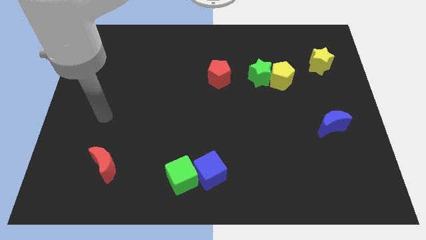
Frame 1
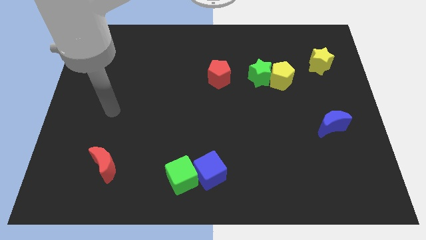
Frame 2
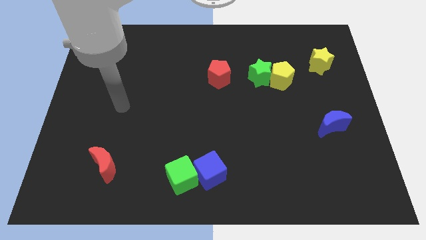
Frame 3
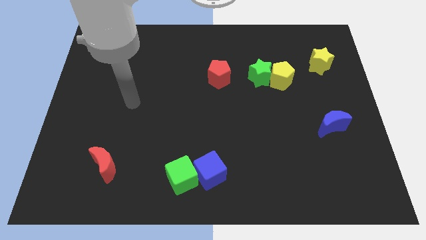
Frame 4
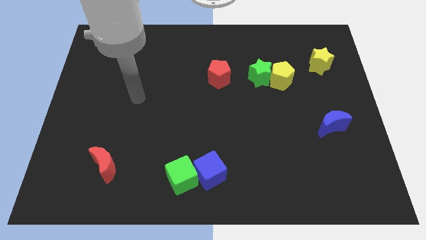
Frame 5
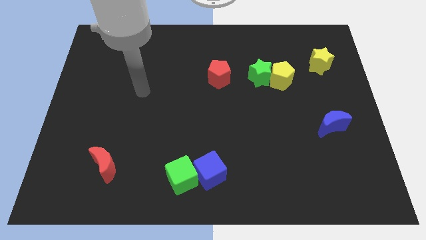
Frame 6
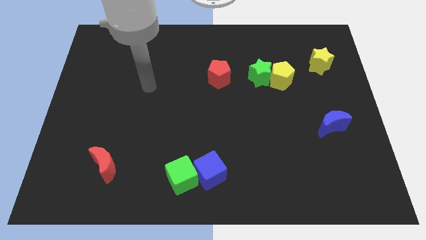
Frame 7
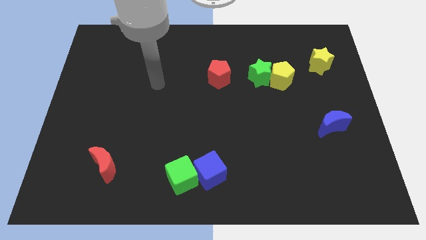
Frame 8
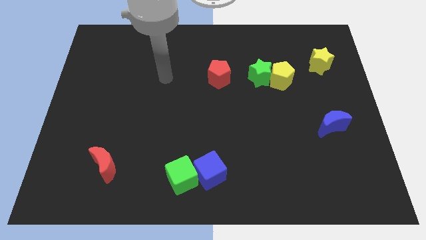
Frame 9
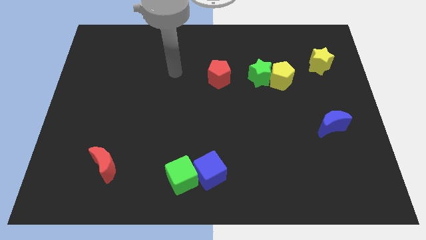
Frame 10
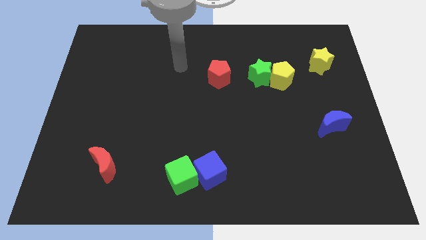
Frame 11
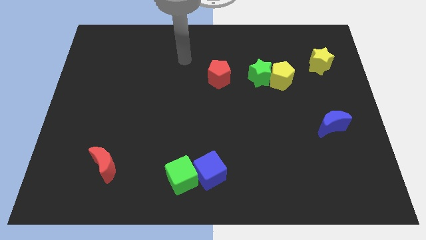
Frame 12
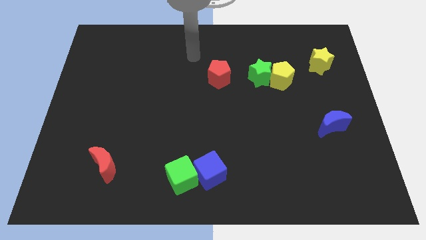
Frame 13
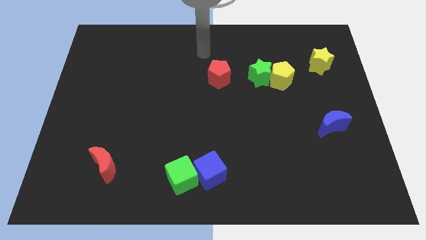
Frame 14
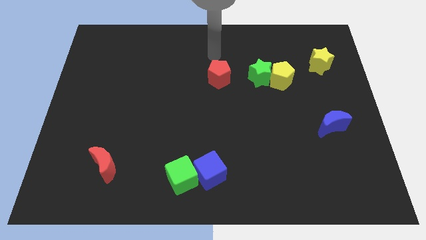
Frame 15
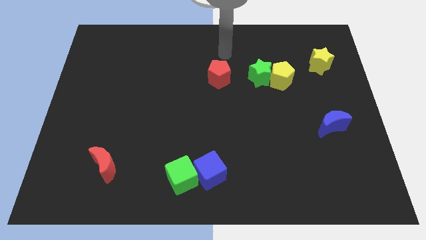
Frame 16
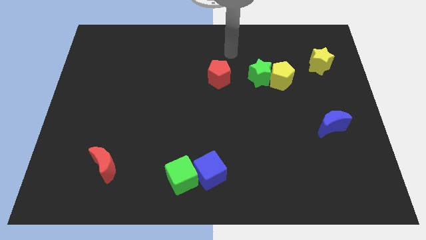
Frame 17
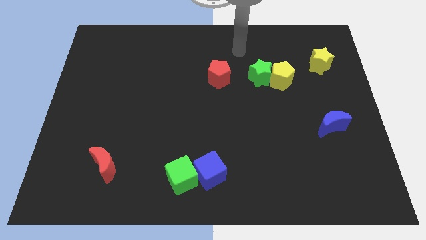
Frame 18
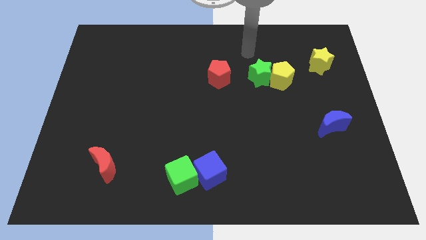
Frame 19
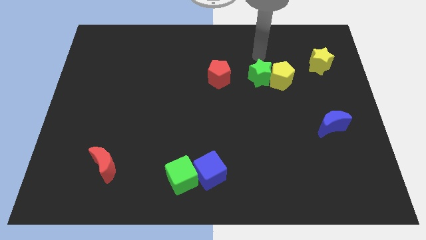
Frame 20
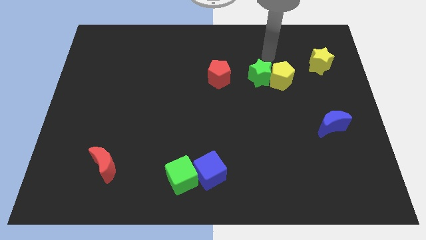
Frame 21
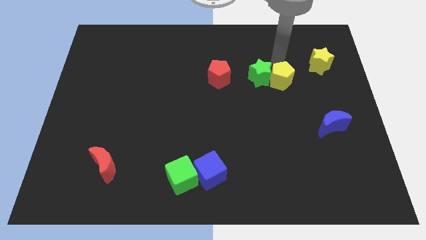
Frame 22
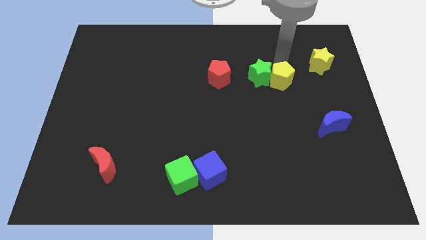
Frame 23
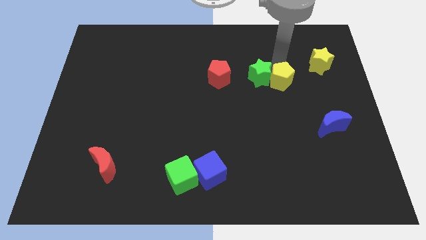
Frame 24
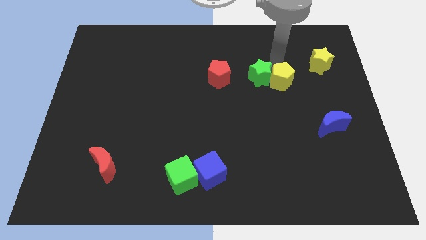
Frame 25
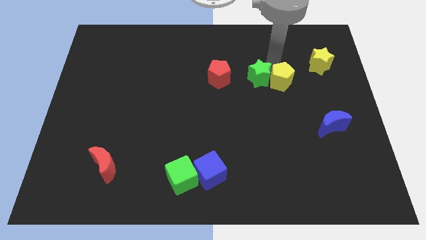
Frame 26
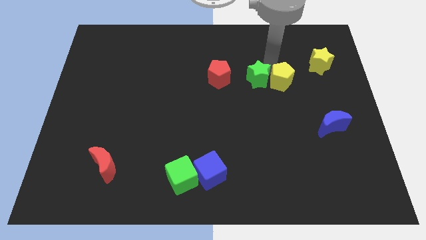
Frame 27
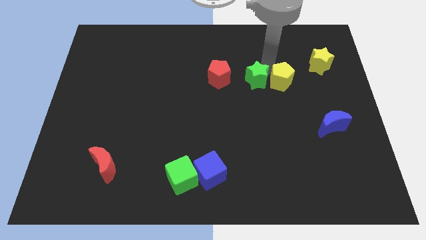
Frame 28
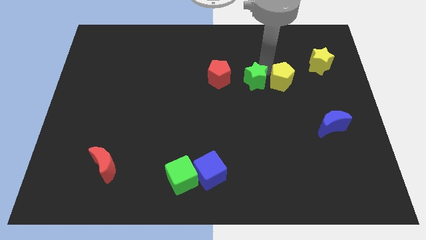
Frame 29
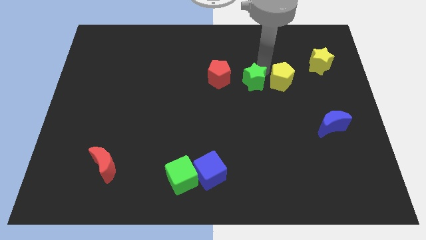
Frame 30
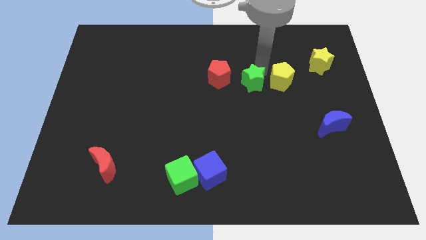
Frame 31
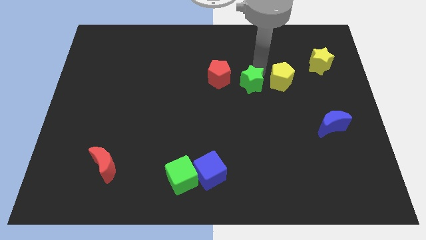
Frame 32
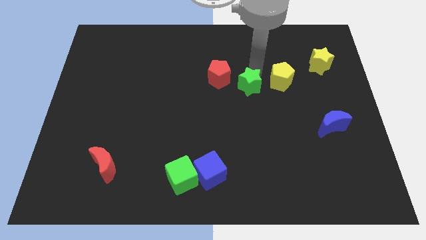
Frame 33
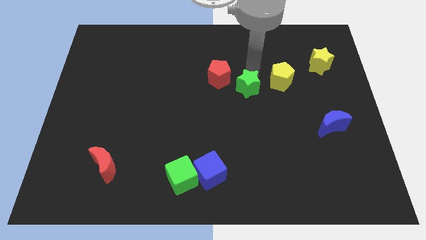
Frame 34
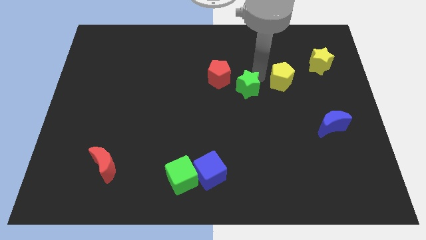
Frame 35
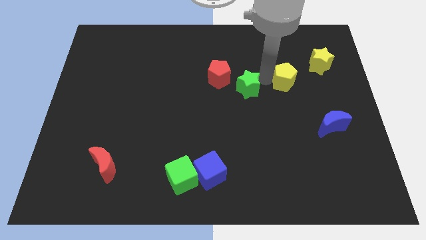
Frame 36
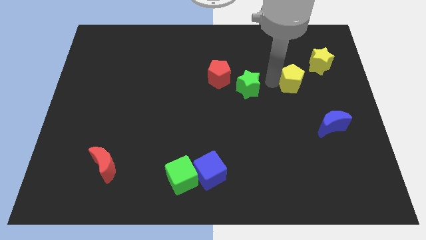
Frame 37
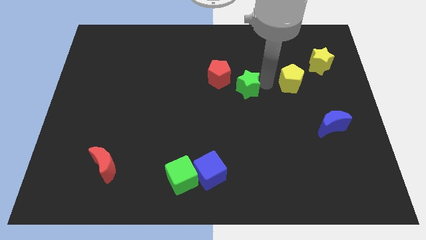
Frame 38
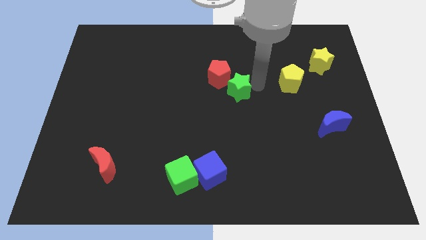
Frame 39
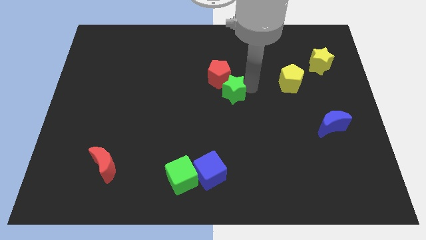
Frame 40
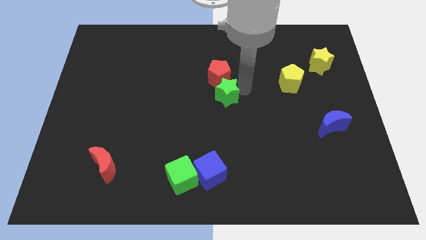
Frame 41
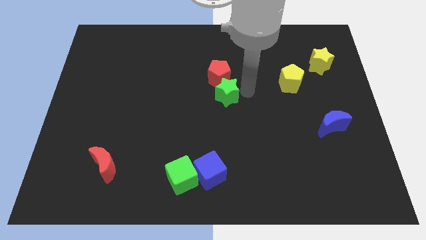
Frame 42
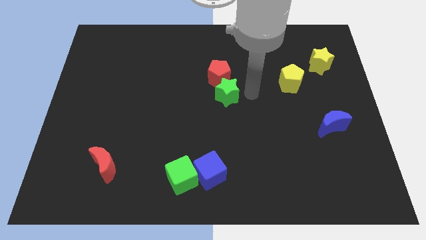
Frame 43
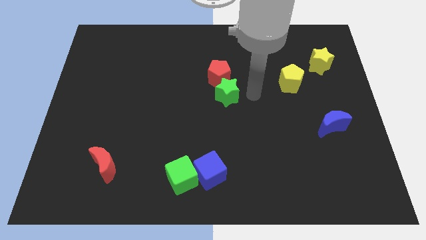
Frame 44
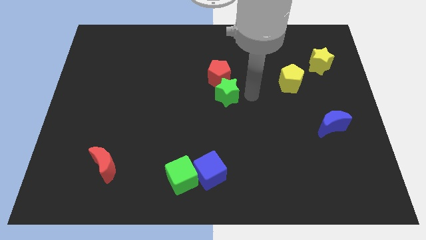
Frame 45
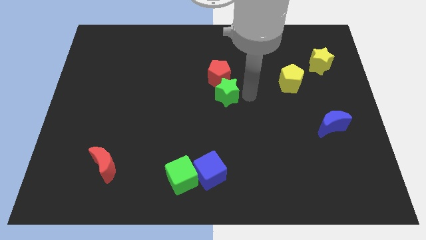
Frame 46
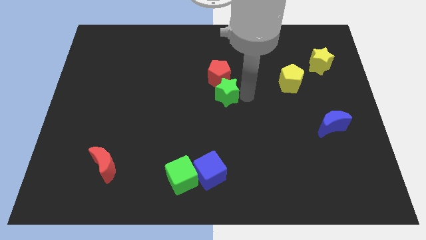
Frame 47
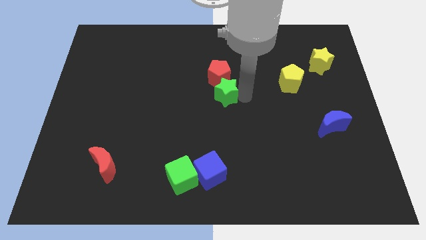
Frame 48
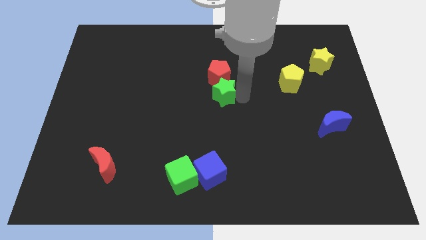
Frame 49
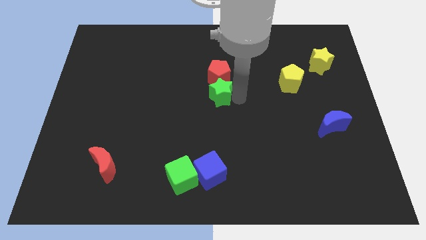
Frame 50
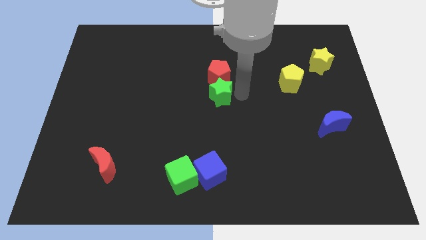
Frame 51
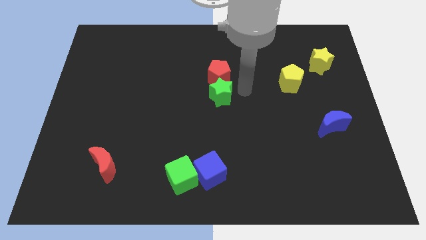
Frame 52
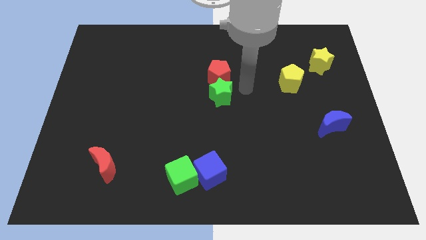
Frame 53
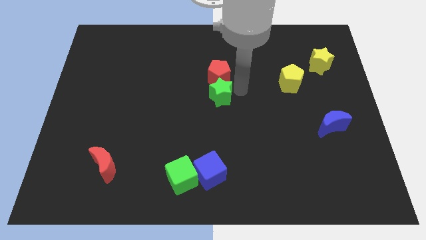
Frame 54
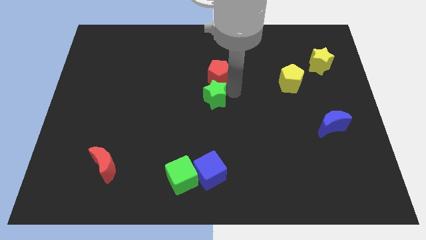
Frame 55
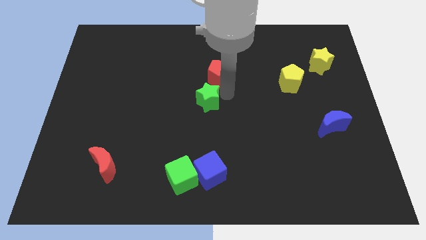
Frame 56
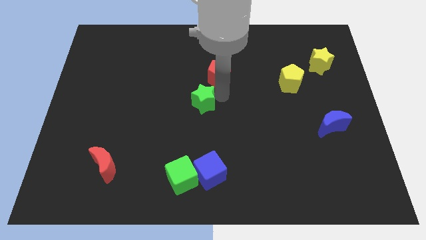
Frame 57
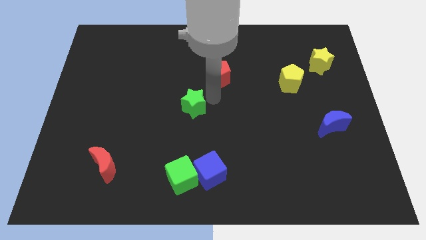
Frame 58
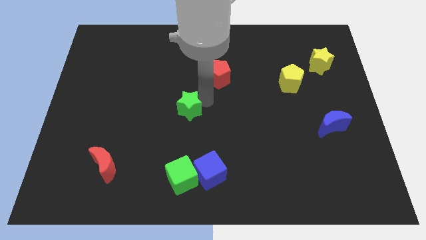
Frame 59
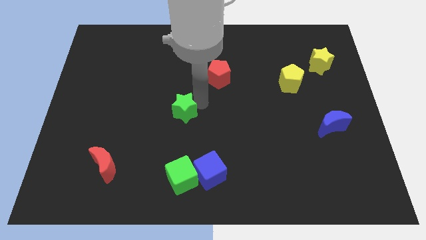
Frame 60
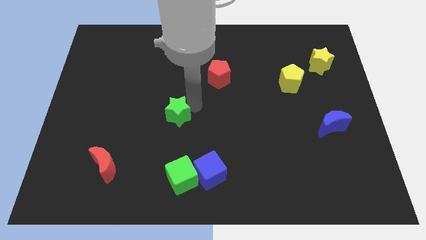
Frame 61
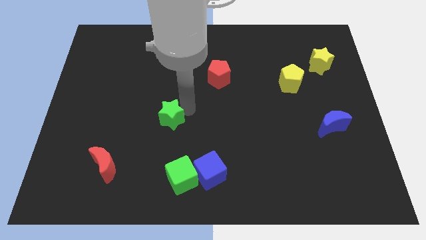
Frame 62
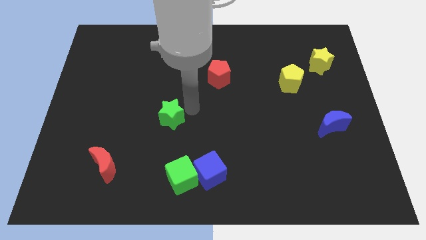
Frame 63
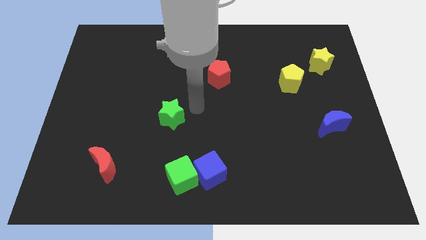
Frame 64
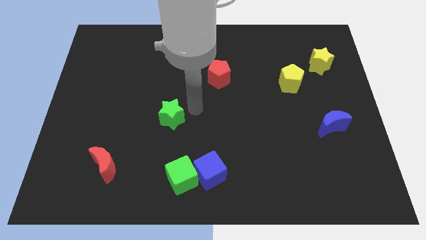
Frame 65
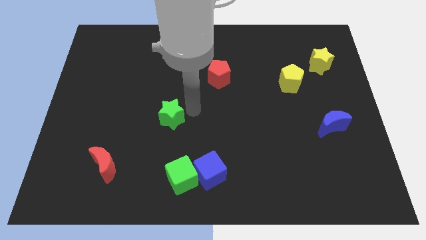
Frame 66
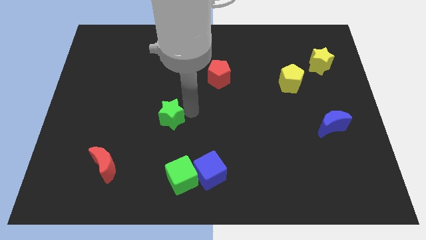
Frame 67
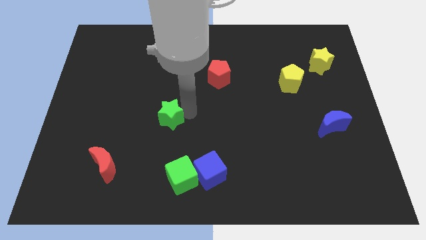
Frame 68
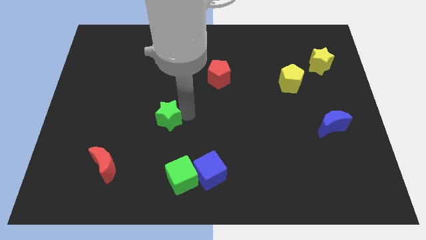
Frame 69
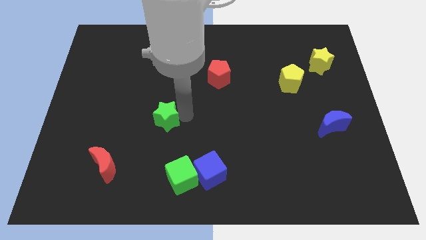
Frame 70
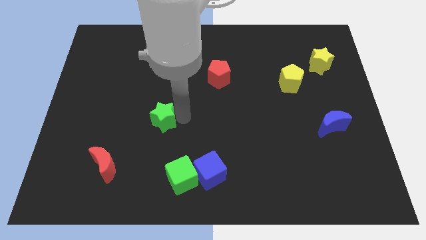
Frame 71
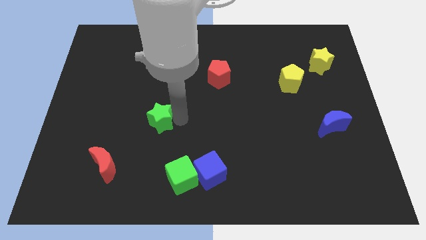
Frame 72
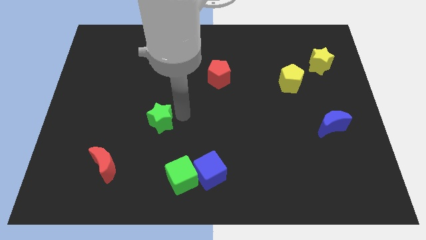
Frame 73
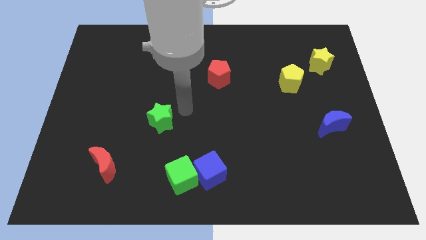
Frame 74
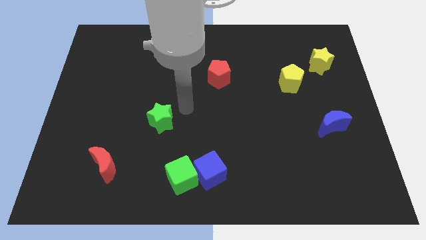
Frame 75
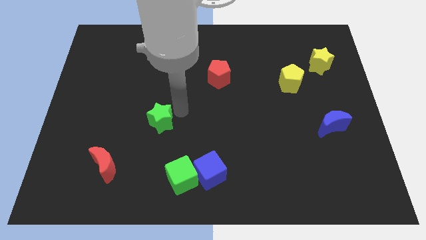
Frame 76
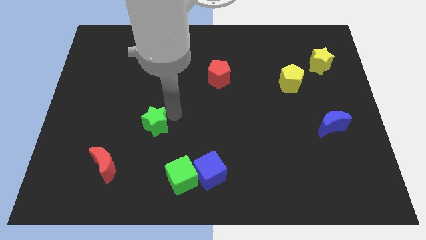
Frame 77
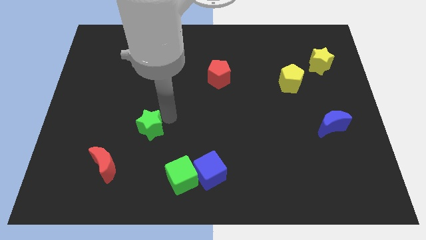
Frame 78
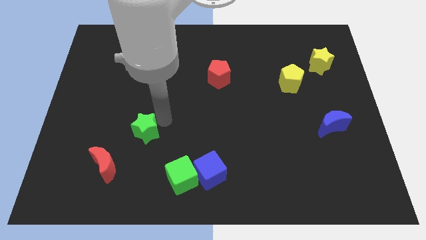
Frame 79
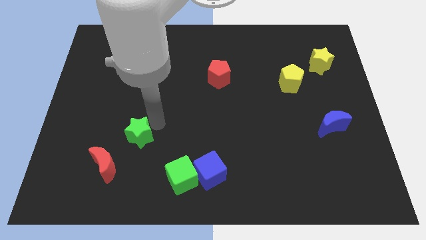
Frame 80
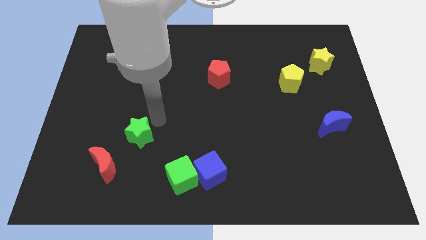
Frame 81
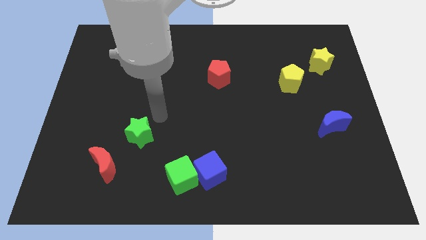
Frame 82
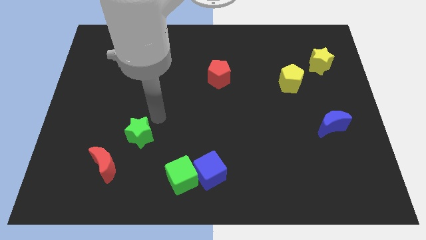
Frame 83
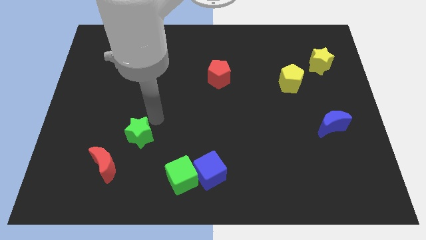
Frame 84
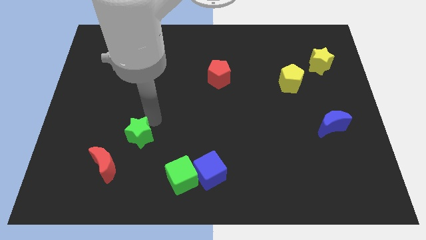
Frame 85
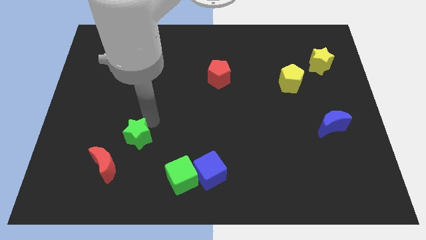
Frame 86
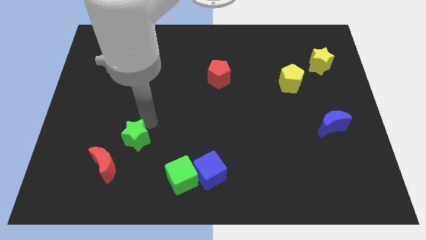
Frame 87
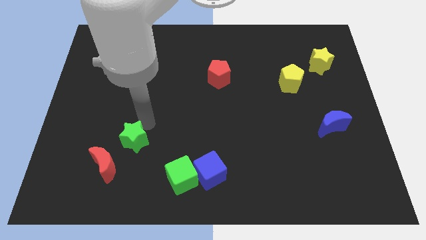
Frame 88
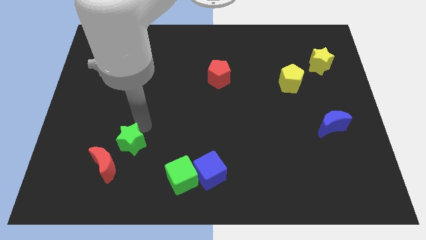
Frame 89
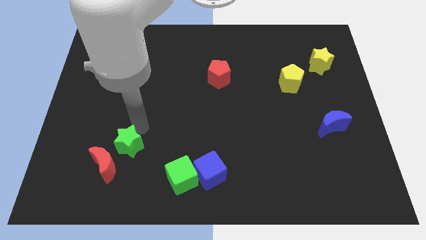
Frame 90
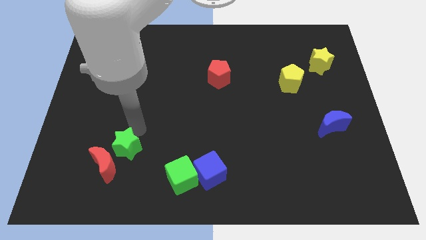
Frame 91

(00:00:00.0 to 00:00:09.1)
slide the green star towards the red moon
